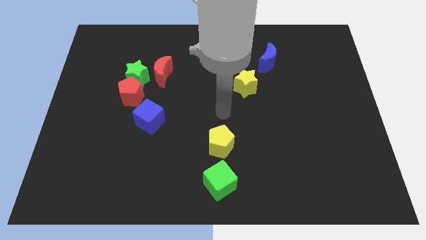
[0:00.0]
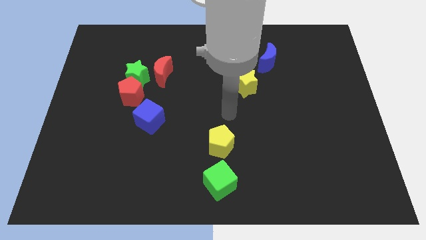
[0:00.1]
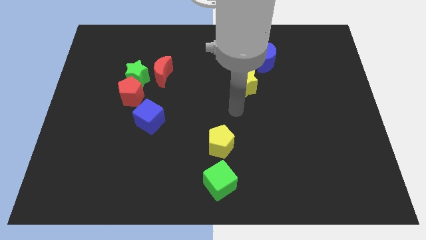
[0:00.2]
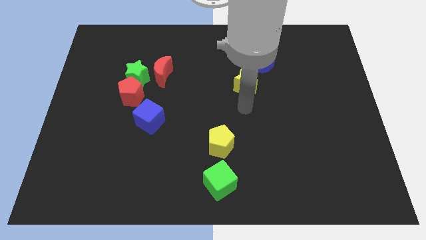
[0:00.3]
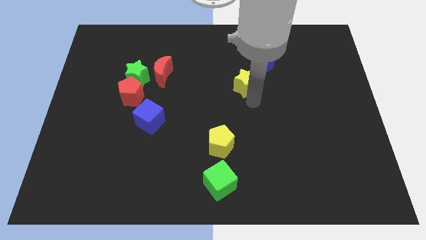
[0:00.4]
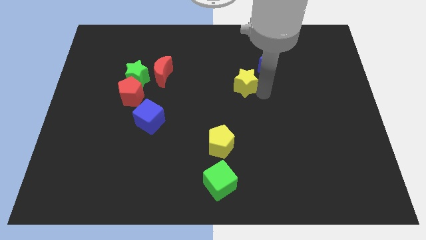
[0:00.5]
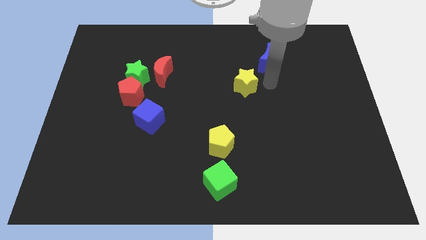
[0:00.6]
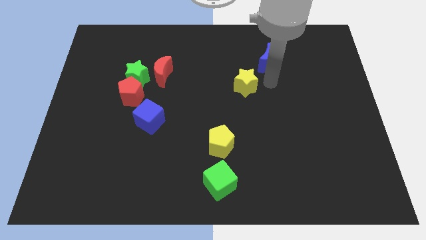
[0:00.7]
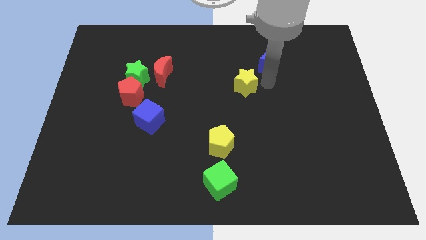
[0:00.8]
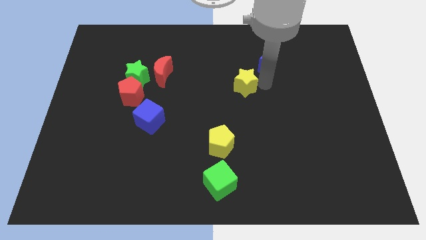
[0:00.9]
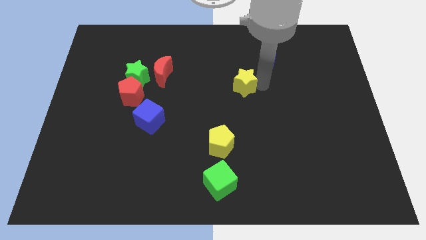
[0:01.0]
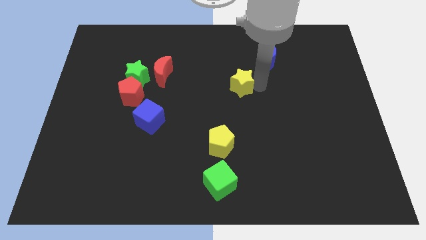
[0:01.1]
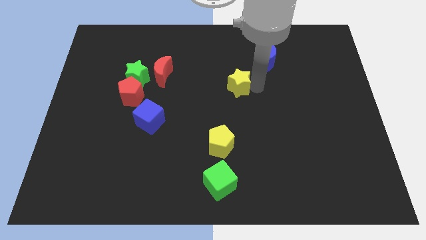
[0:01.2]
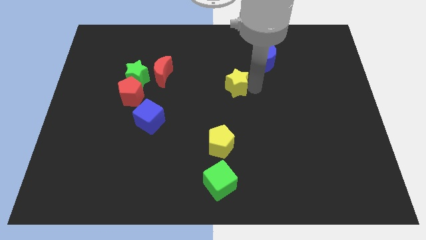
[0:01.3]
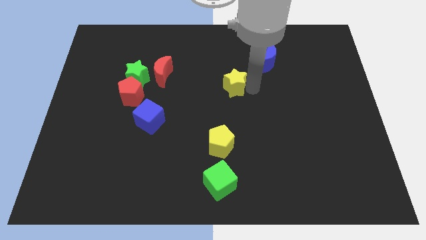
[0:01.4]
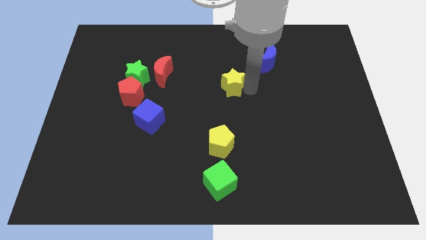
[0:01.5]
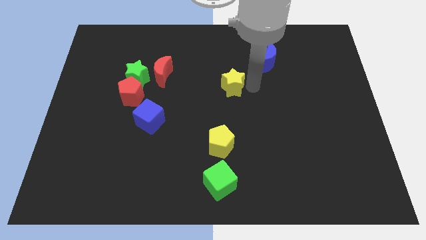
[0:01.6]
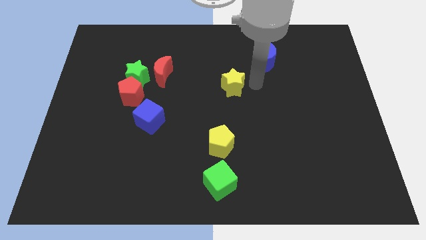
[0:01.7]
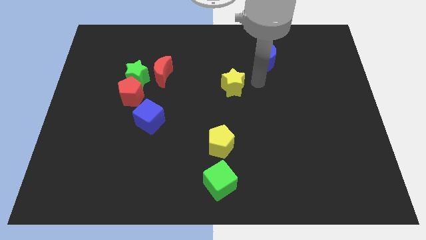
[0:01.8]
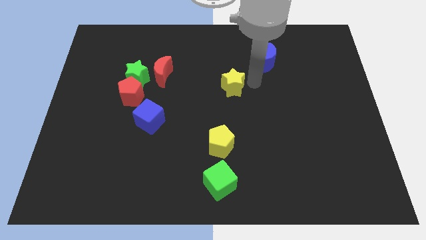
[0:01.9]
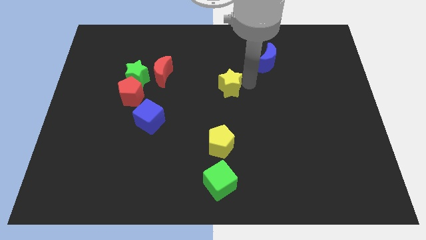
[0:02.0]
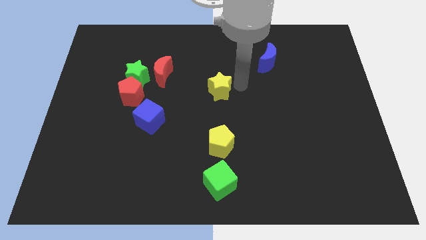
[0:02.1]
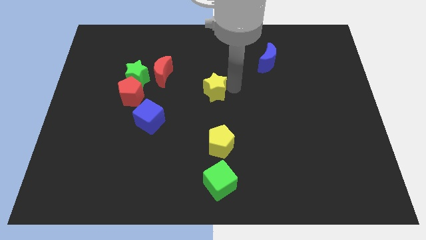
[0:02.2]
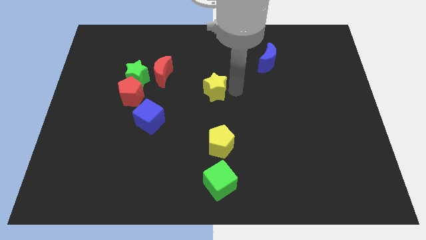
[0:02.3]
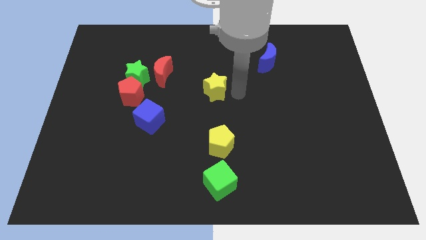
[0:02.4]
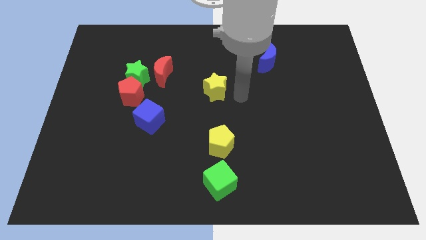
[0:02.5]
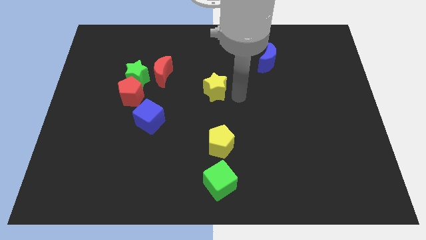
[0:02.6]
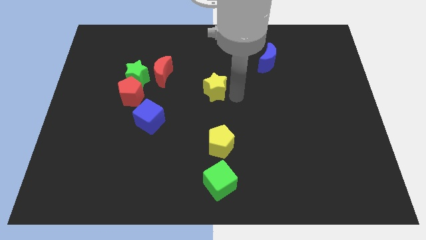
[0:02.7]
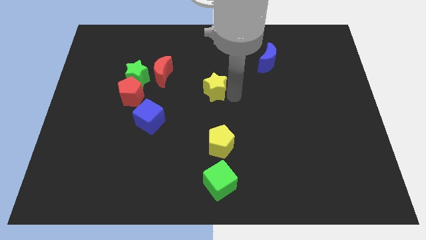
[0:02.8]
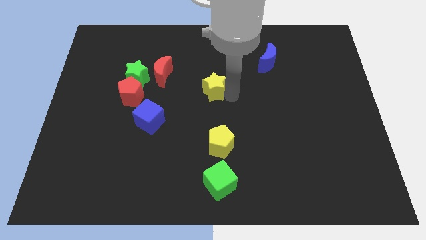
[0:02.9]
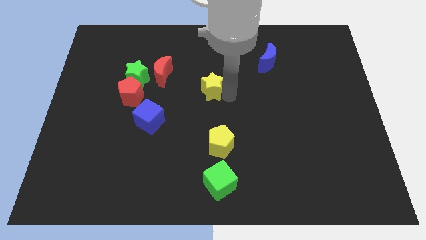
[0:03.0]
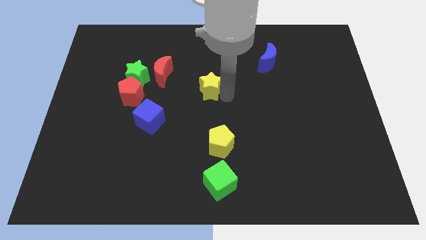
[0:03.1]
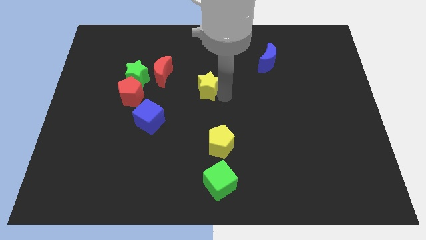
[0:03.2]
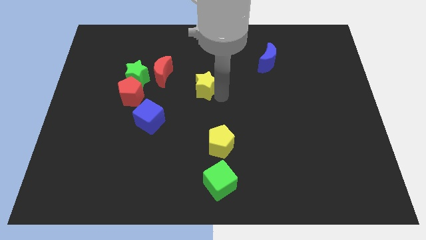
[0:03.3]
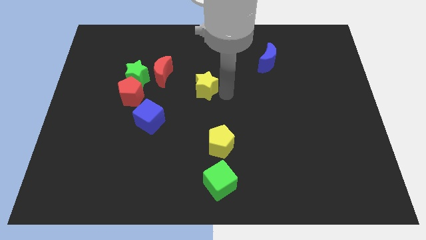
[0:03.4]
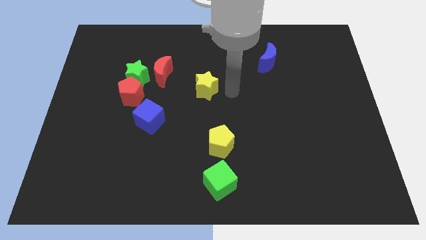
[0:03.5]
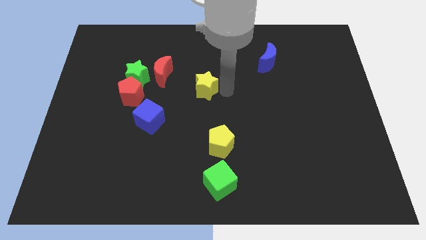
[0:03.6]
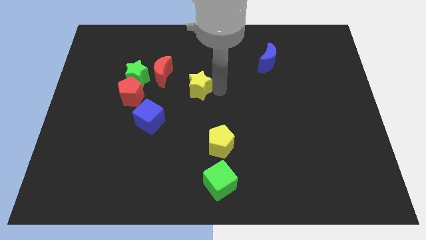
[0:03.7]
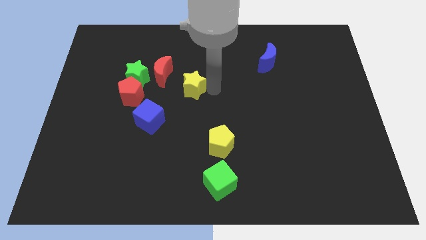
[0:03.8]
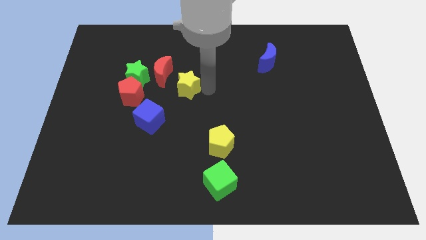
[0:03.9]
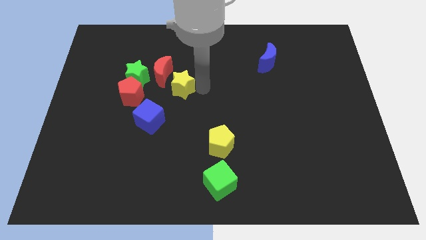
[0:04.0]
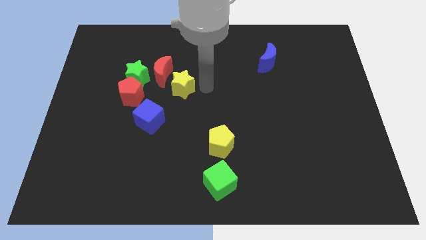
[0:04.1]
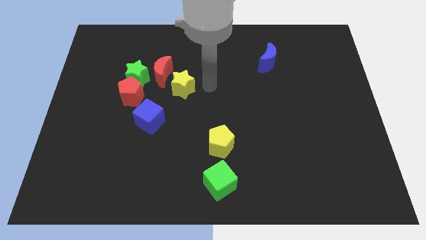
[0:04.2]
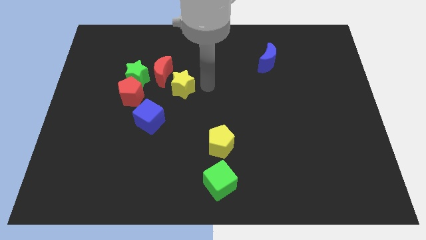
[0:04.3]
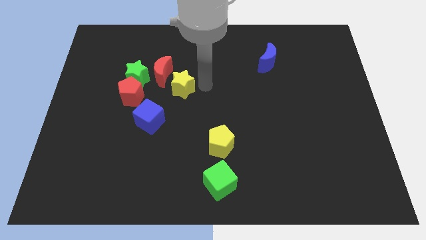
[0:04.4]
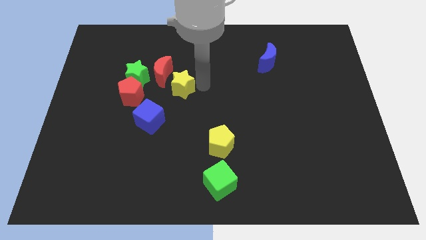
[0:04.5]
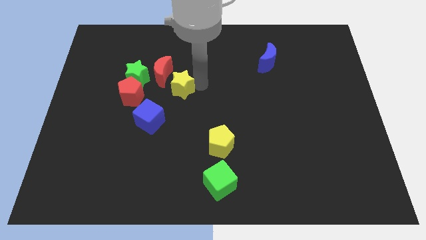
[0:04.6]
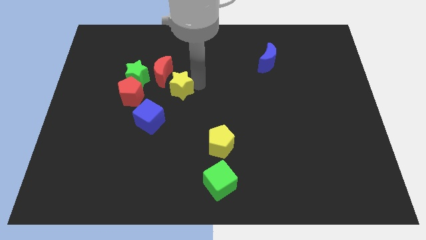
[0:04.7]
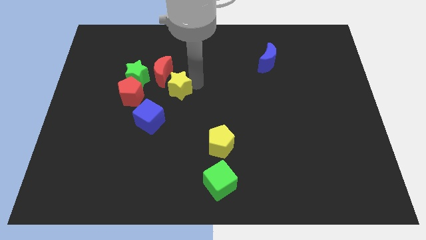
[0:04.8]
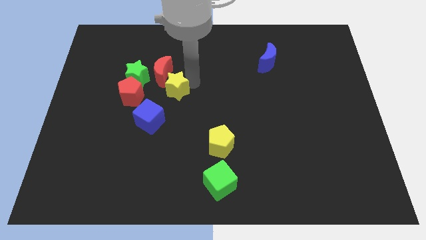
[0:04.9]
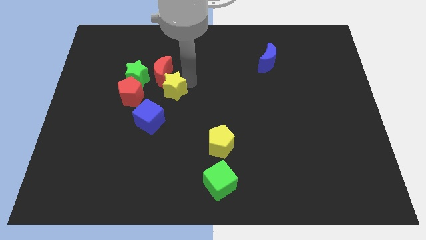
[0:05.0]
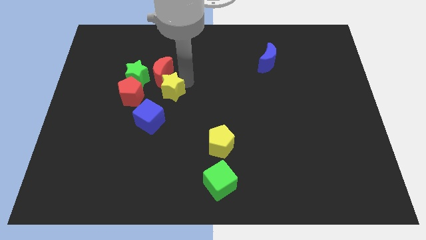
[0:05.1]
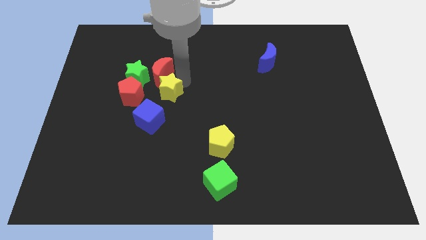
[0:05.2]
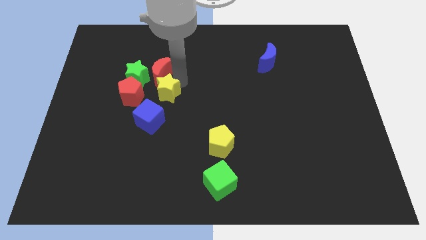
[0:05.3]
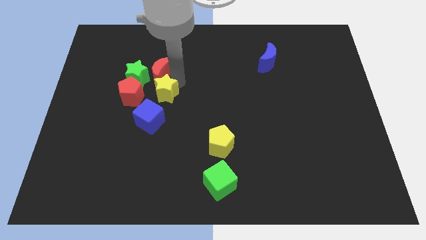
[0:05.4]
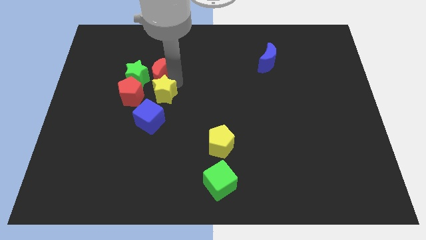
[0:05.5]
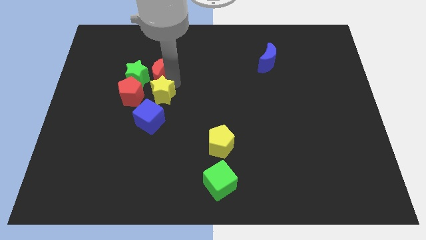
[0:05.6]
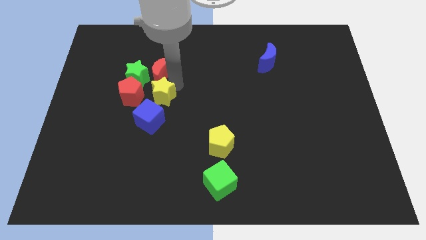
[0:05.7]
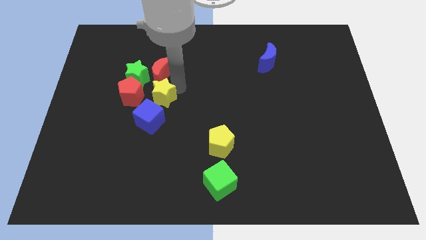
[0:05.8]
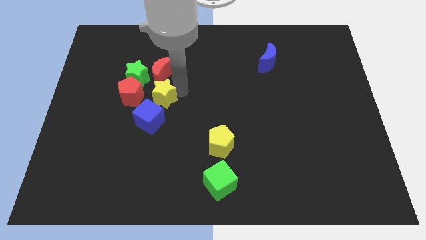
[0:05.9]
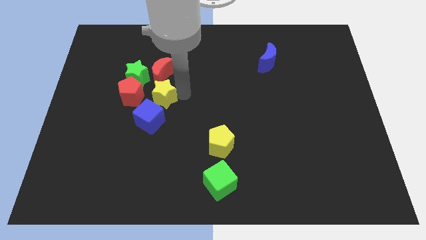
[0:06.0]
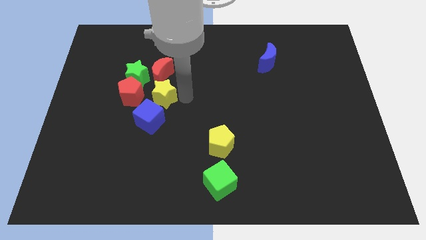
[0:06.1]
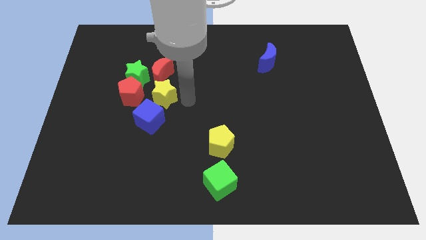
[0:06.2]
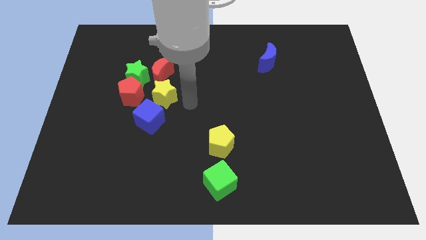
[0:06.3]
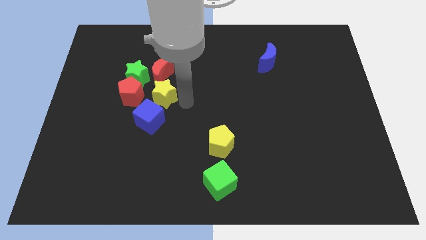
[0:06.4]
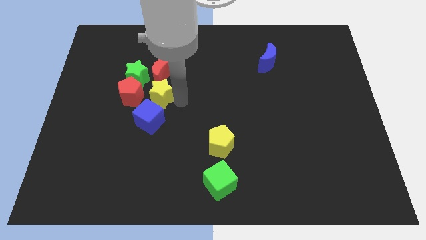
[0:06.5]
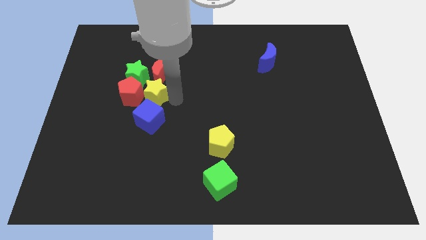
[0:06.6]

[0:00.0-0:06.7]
push the yellow star to the red pentagon
